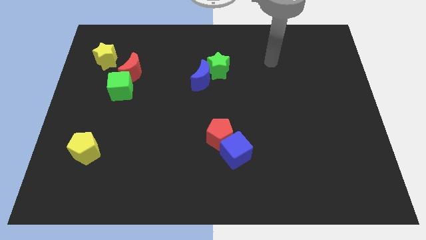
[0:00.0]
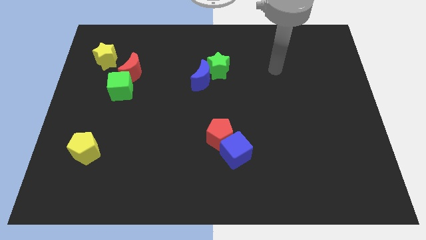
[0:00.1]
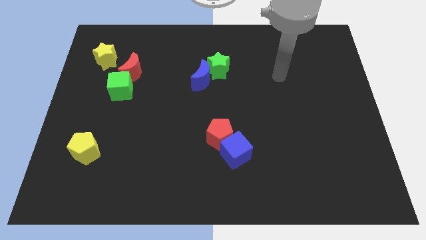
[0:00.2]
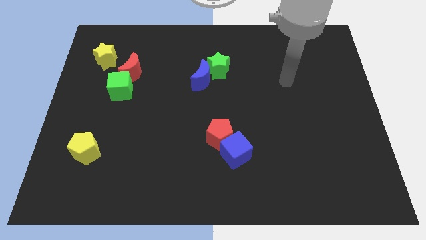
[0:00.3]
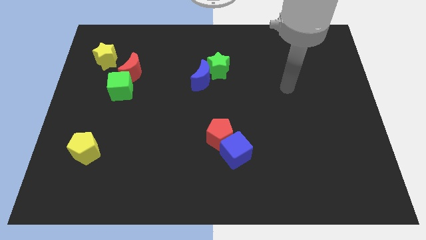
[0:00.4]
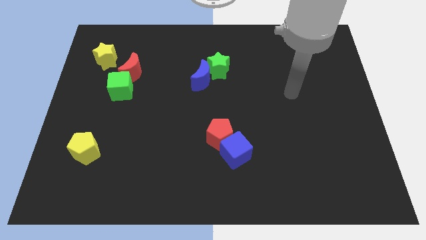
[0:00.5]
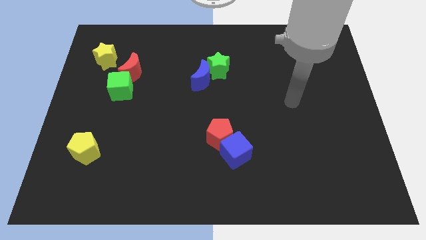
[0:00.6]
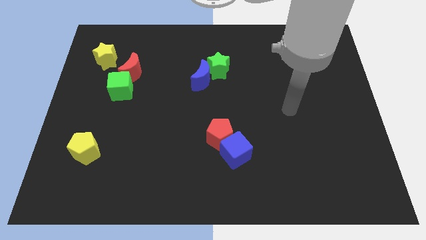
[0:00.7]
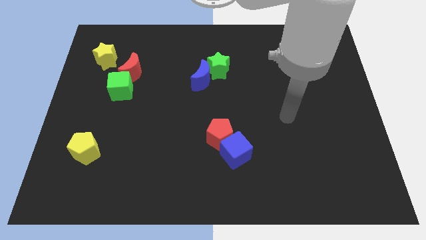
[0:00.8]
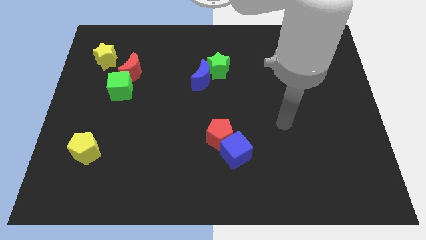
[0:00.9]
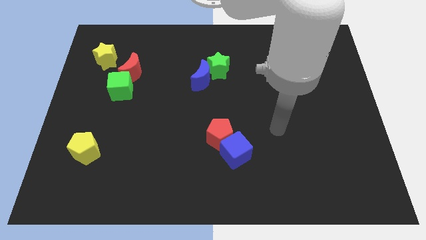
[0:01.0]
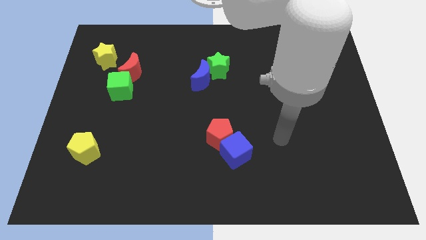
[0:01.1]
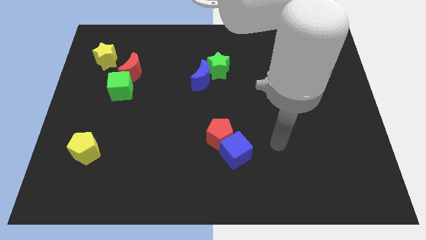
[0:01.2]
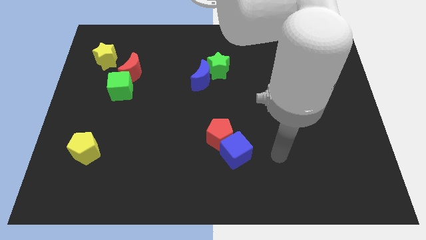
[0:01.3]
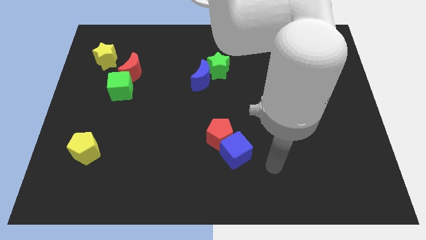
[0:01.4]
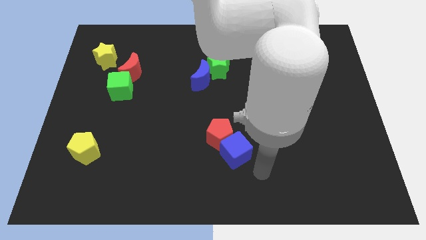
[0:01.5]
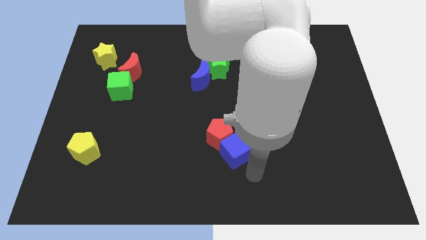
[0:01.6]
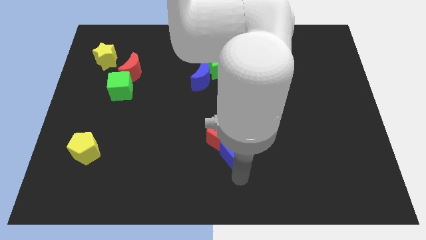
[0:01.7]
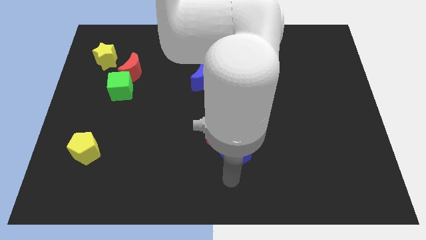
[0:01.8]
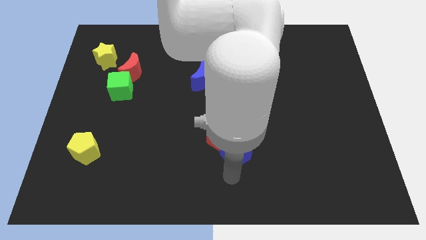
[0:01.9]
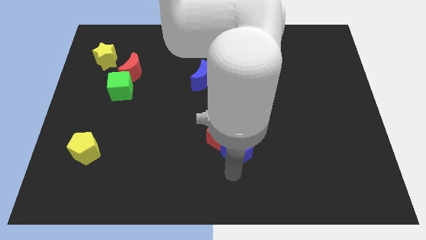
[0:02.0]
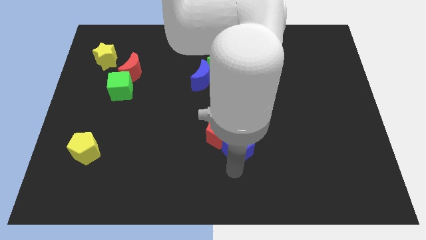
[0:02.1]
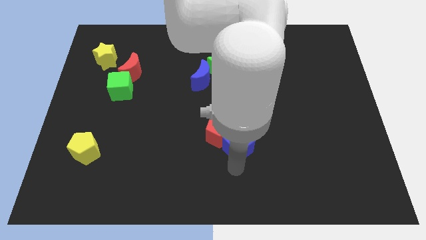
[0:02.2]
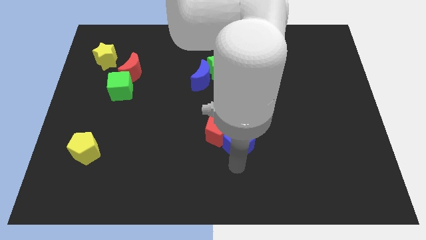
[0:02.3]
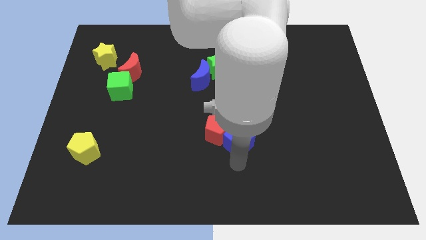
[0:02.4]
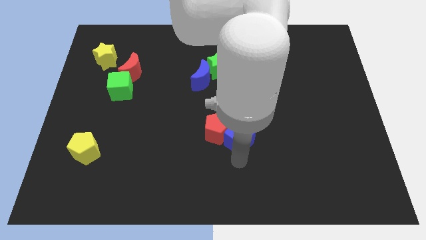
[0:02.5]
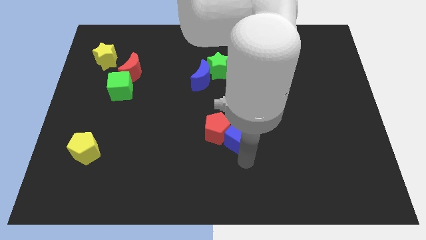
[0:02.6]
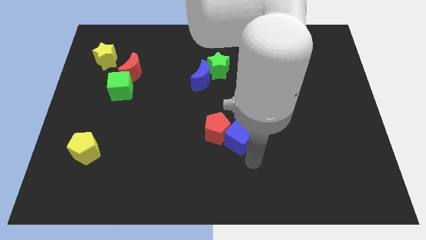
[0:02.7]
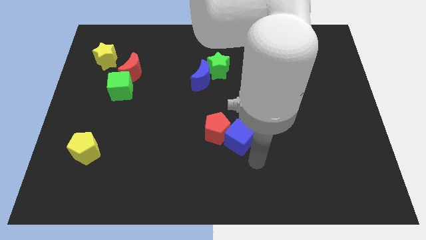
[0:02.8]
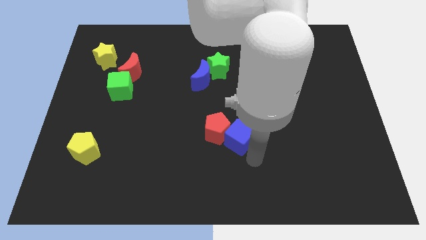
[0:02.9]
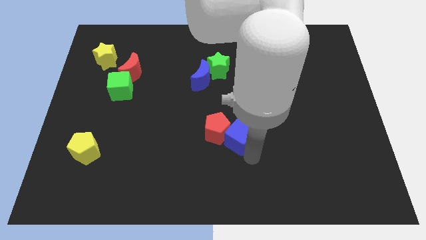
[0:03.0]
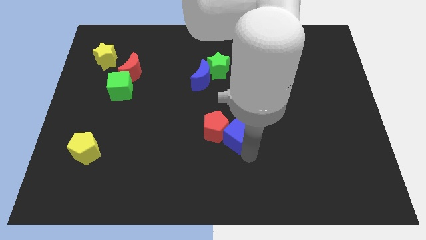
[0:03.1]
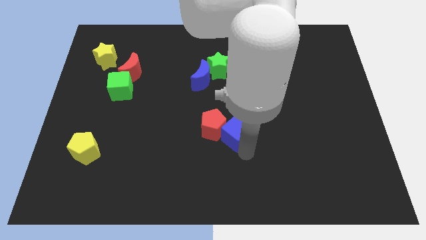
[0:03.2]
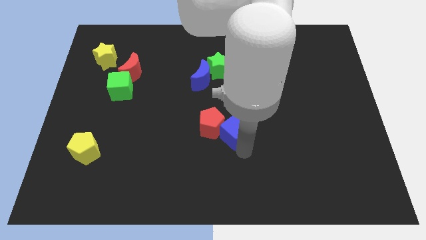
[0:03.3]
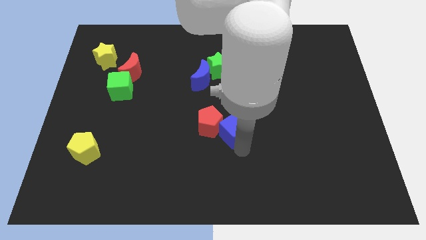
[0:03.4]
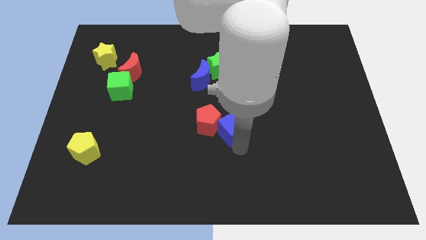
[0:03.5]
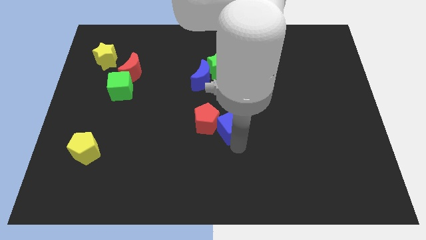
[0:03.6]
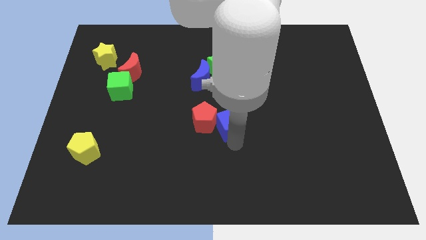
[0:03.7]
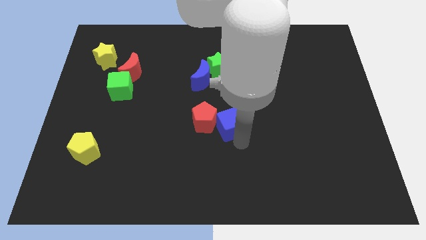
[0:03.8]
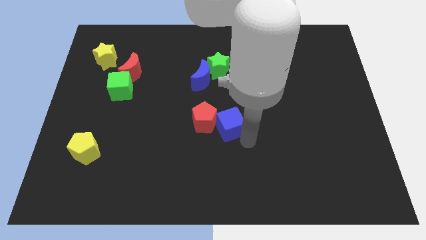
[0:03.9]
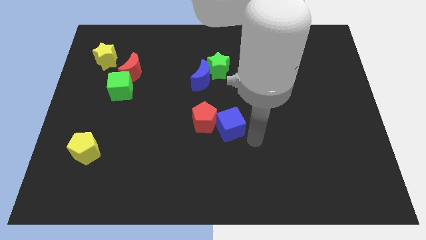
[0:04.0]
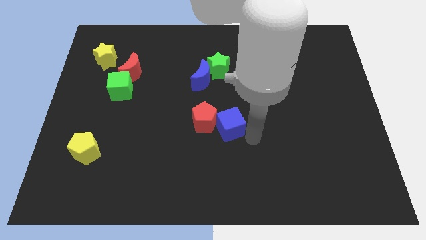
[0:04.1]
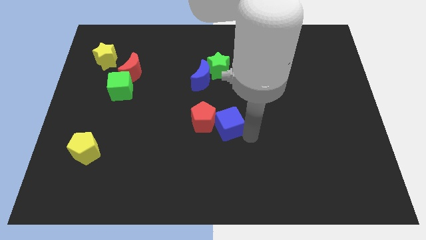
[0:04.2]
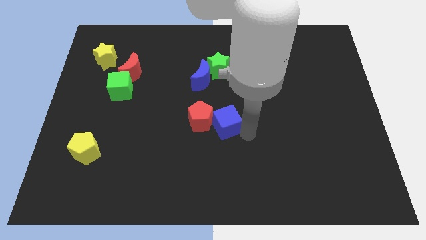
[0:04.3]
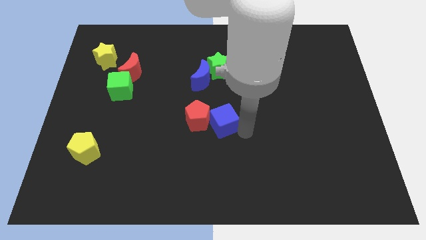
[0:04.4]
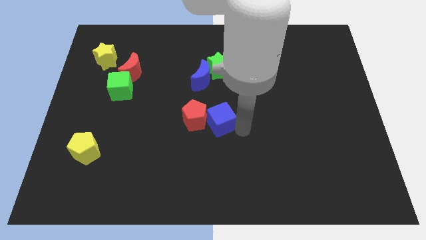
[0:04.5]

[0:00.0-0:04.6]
put the blue cube to the bottom of the blue moon

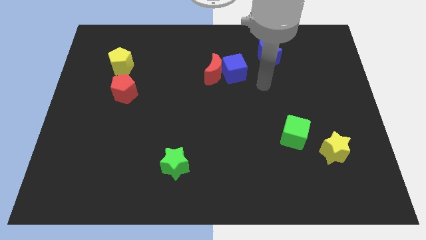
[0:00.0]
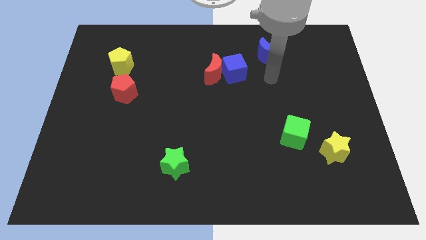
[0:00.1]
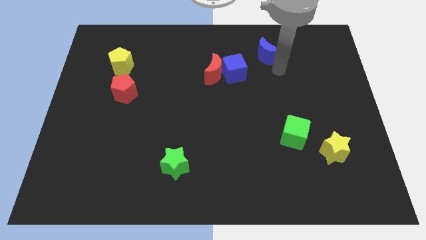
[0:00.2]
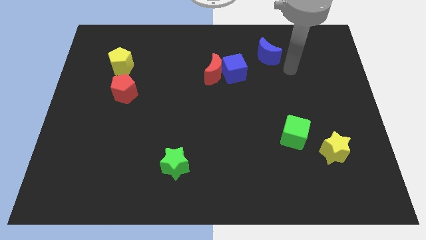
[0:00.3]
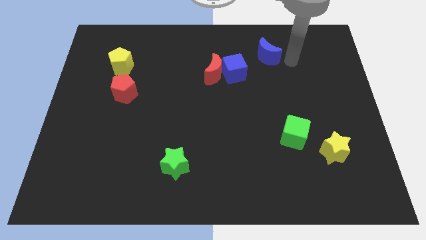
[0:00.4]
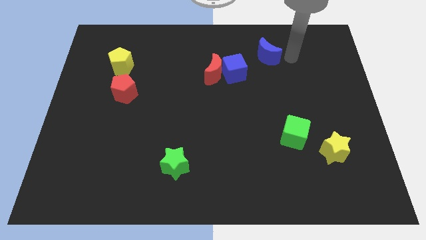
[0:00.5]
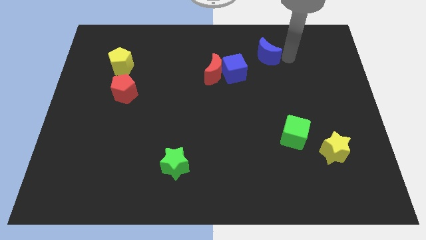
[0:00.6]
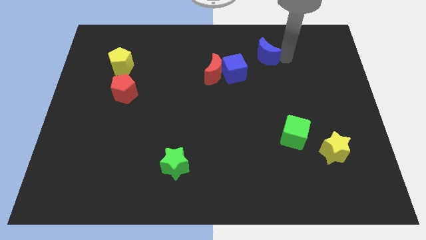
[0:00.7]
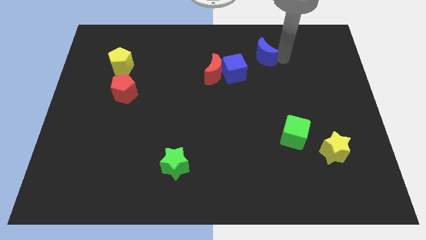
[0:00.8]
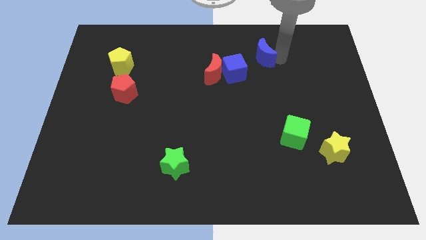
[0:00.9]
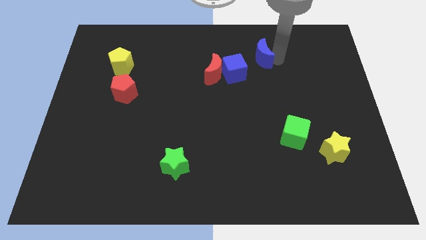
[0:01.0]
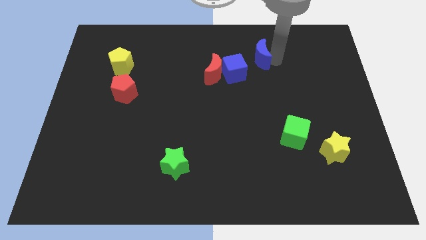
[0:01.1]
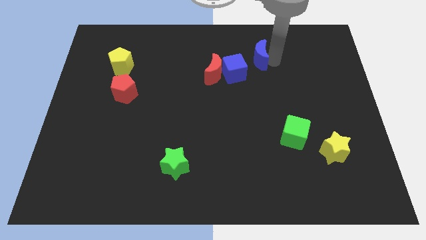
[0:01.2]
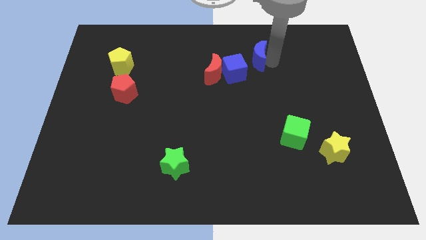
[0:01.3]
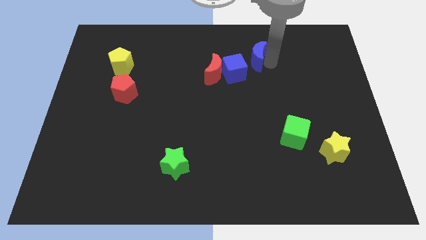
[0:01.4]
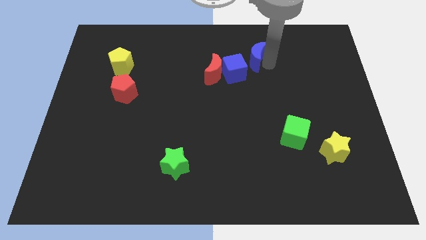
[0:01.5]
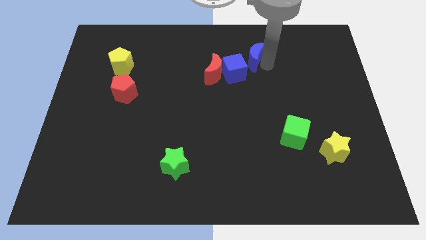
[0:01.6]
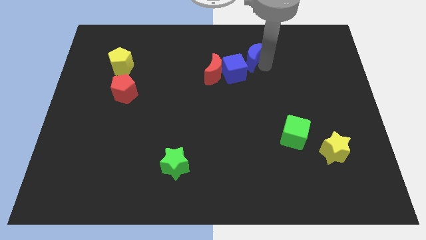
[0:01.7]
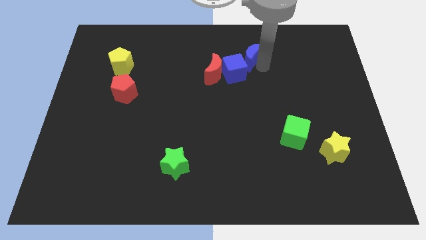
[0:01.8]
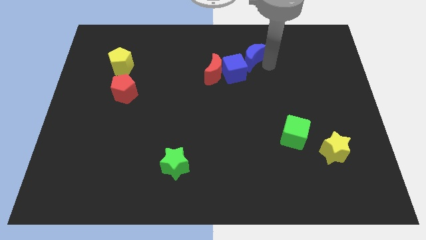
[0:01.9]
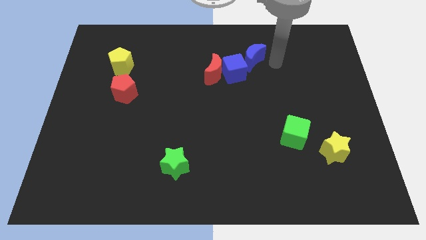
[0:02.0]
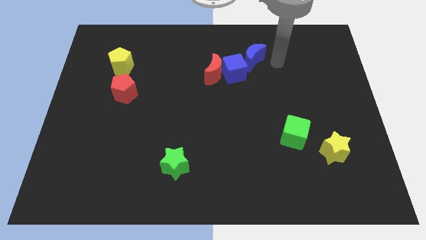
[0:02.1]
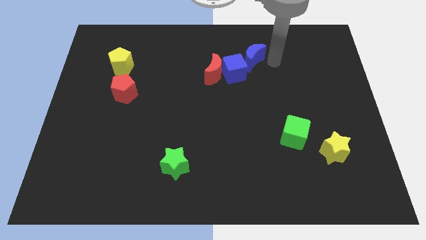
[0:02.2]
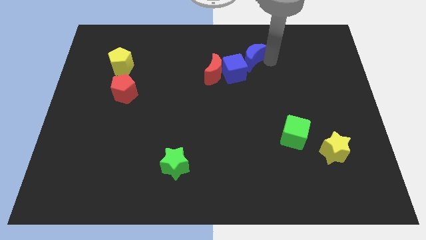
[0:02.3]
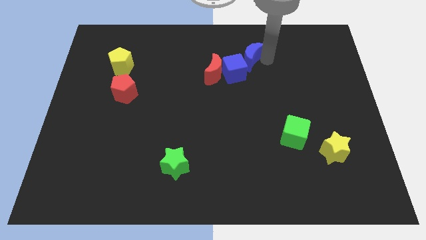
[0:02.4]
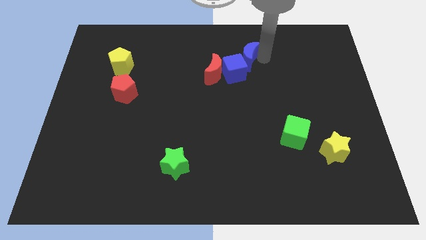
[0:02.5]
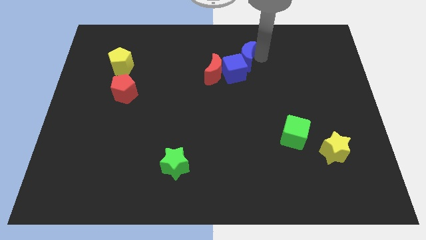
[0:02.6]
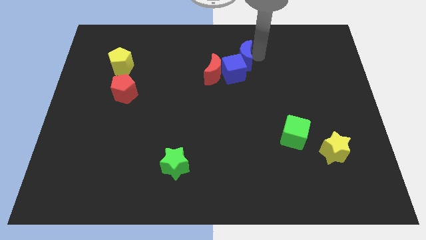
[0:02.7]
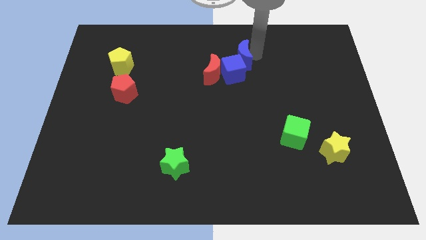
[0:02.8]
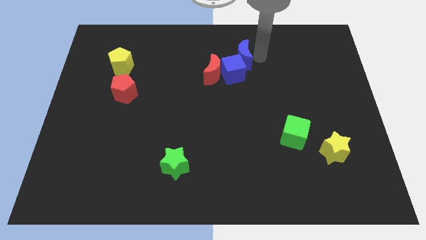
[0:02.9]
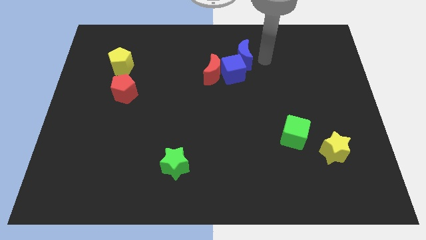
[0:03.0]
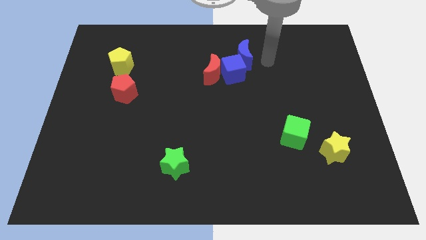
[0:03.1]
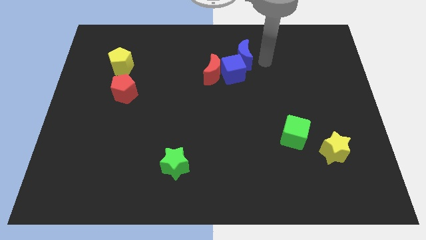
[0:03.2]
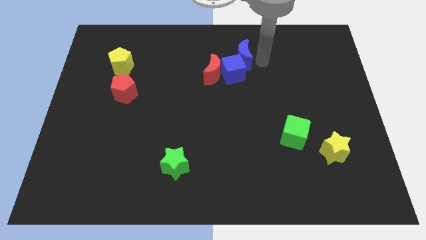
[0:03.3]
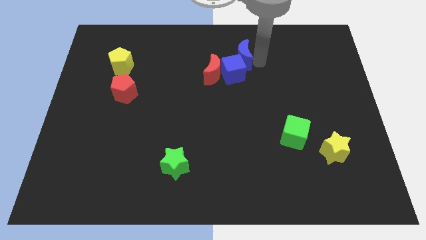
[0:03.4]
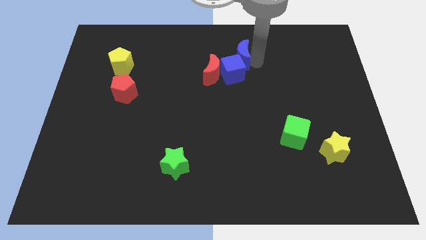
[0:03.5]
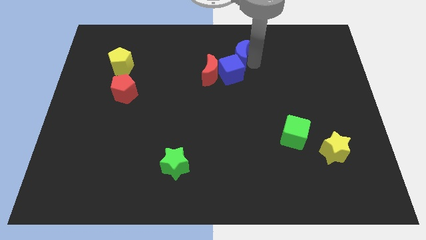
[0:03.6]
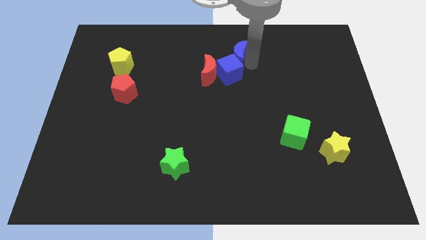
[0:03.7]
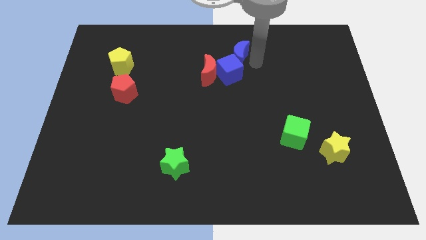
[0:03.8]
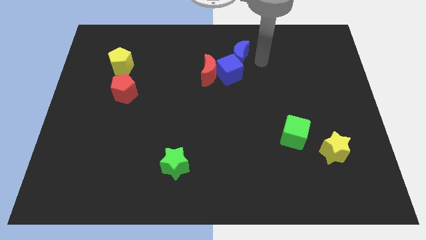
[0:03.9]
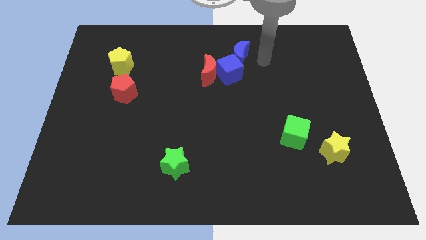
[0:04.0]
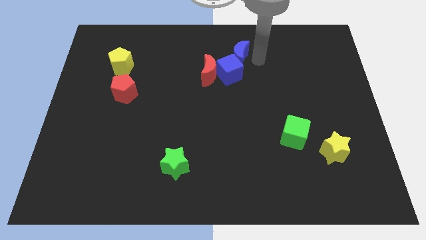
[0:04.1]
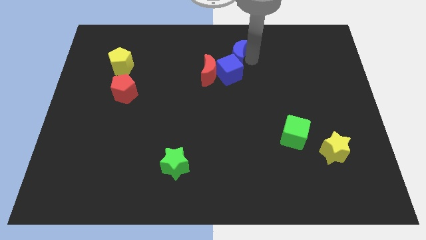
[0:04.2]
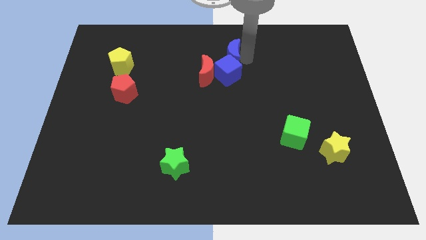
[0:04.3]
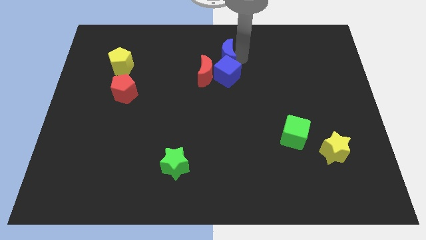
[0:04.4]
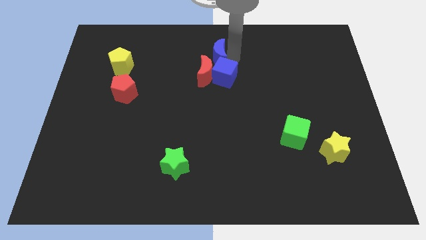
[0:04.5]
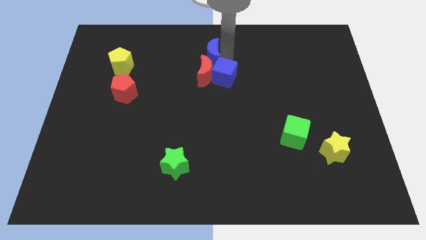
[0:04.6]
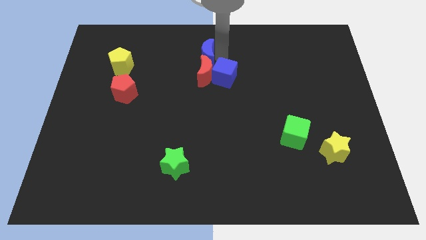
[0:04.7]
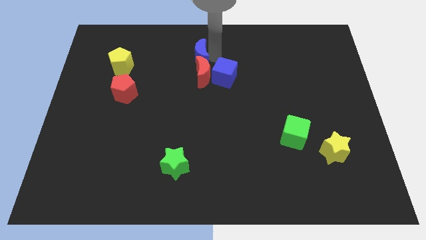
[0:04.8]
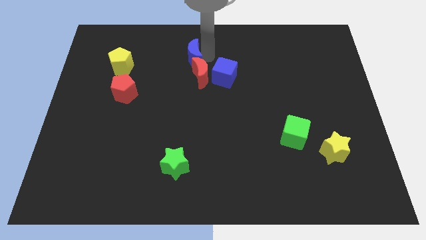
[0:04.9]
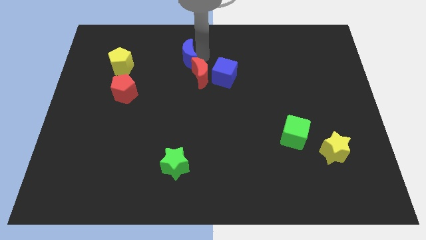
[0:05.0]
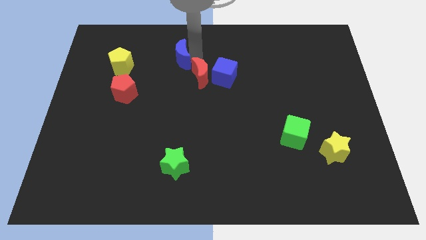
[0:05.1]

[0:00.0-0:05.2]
slide the blue moon to the right side of the yellow pentagon
